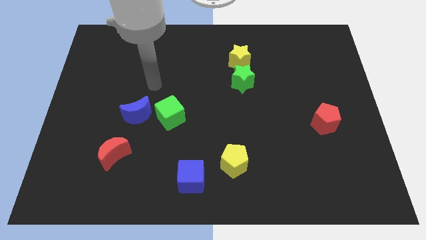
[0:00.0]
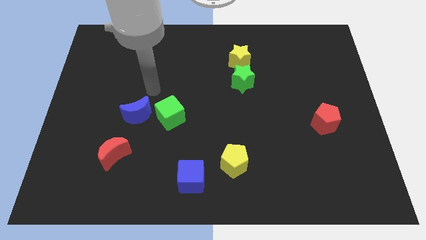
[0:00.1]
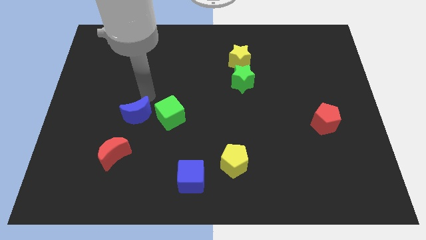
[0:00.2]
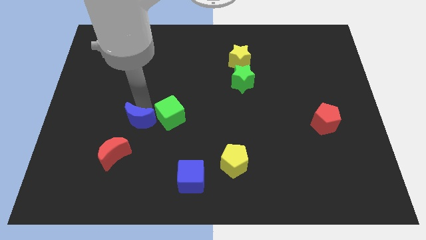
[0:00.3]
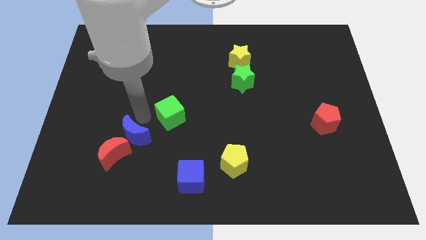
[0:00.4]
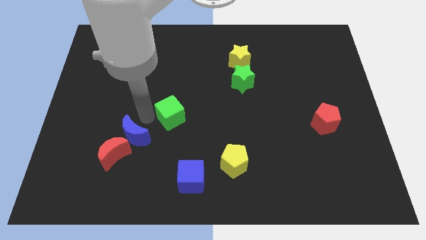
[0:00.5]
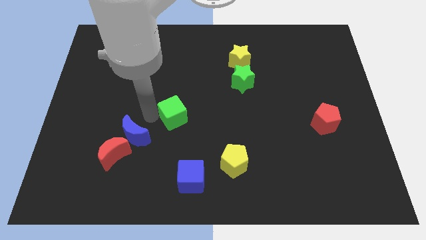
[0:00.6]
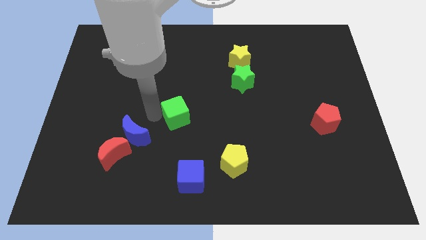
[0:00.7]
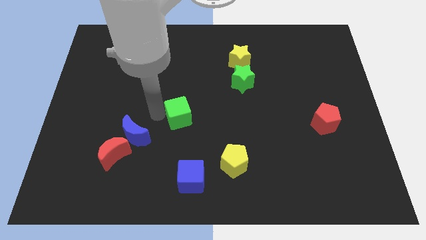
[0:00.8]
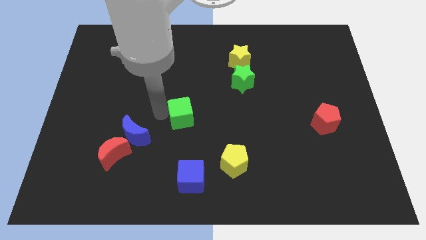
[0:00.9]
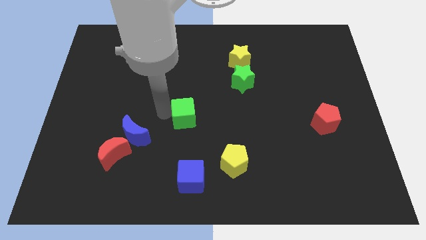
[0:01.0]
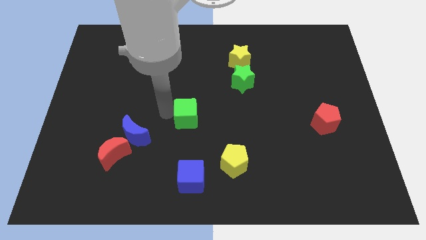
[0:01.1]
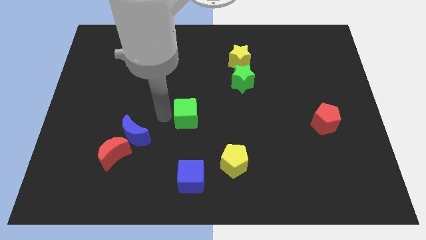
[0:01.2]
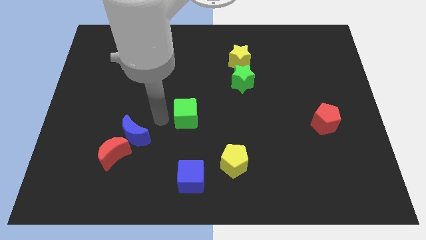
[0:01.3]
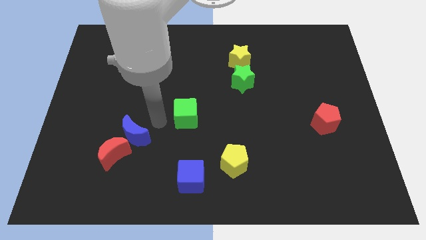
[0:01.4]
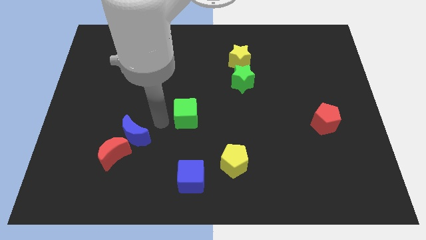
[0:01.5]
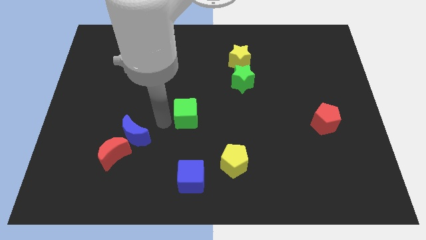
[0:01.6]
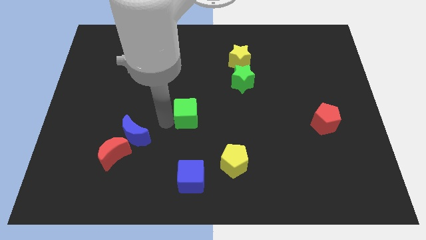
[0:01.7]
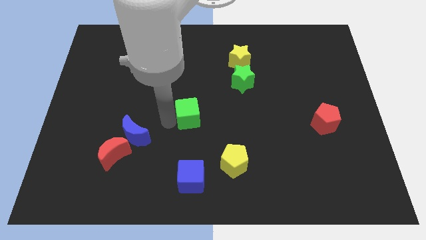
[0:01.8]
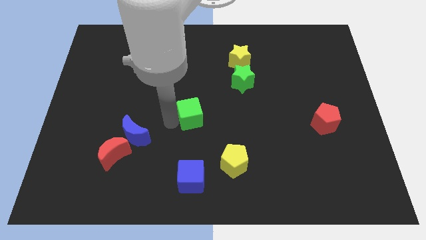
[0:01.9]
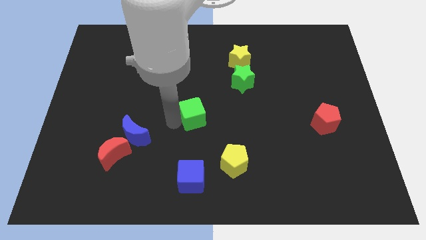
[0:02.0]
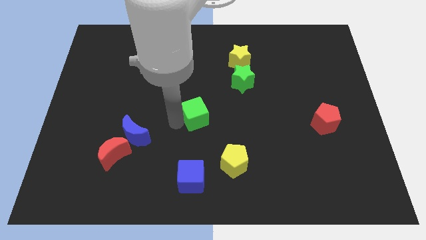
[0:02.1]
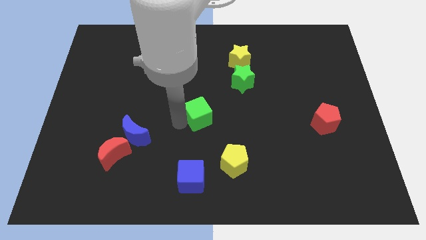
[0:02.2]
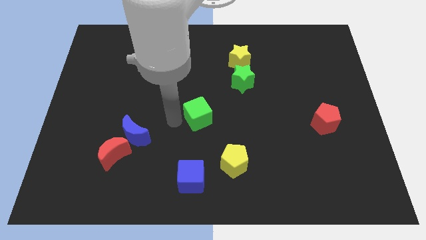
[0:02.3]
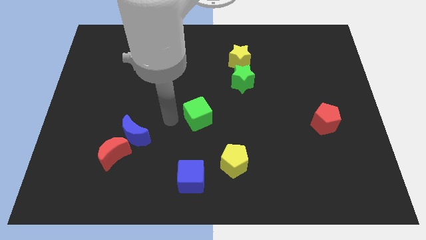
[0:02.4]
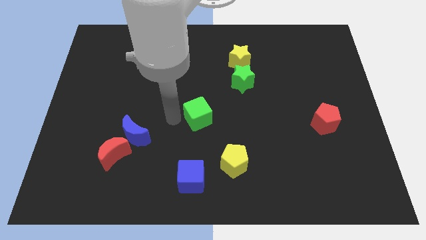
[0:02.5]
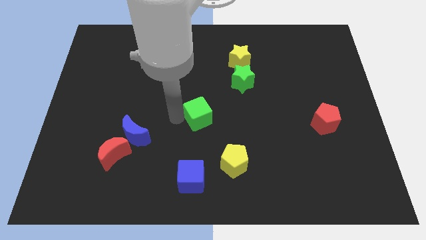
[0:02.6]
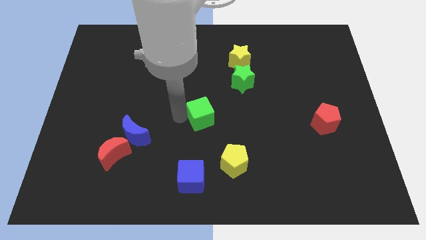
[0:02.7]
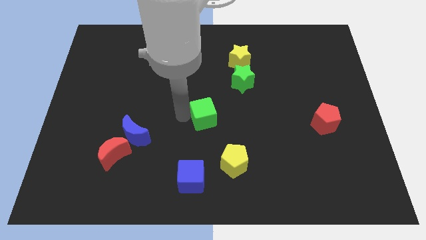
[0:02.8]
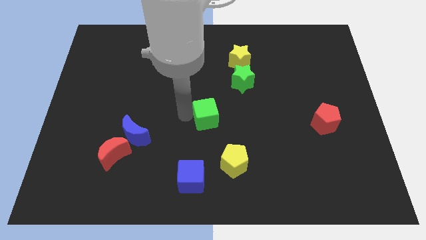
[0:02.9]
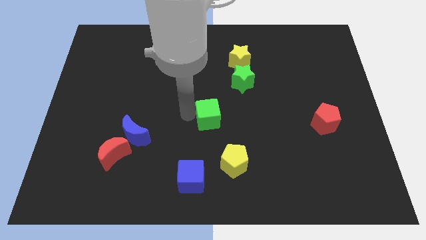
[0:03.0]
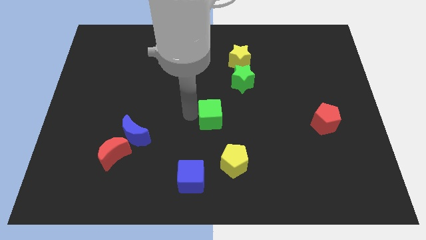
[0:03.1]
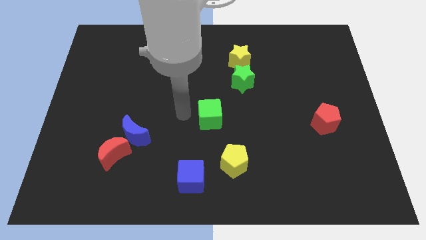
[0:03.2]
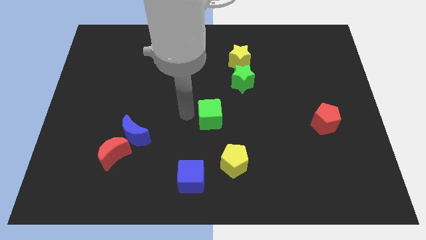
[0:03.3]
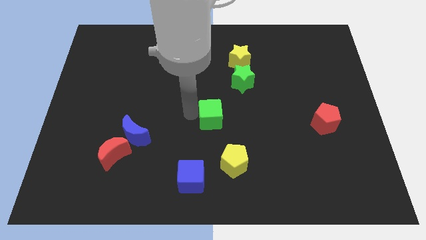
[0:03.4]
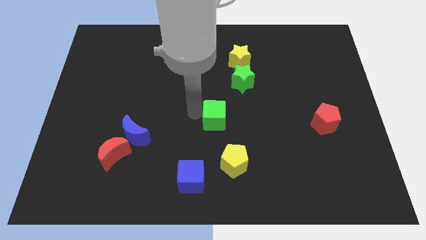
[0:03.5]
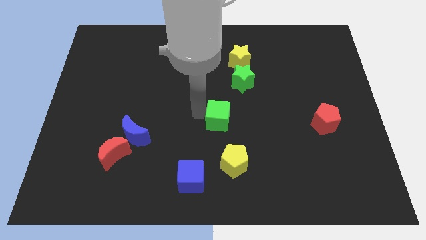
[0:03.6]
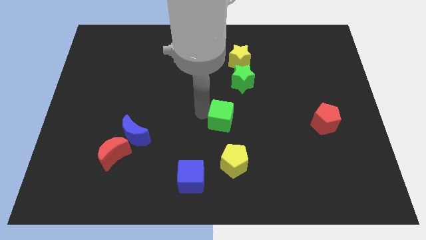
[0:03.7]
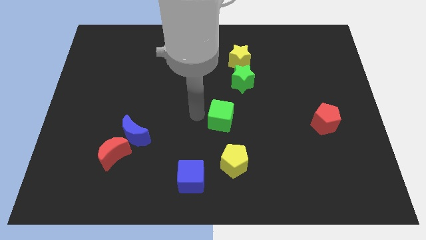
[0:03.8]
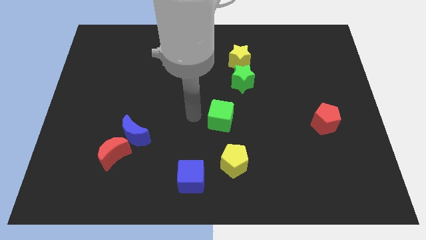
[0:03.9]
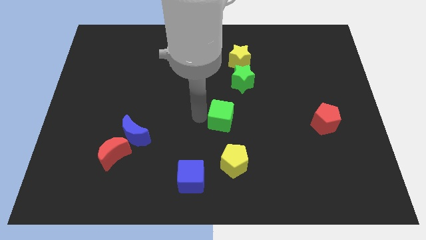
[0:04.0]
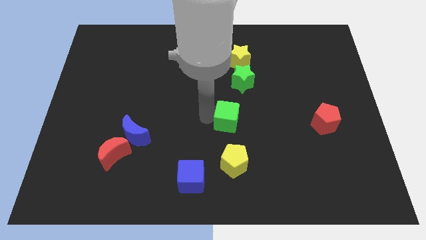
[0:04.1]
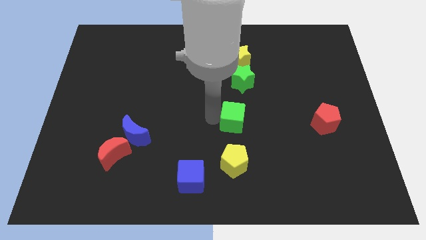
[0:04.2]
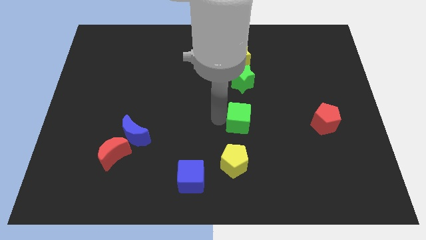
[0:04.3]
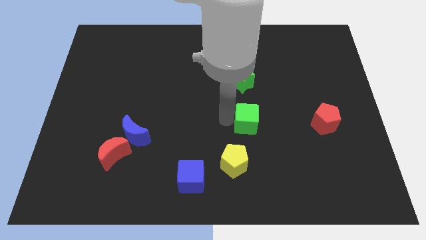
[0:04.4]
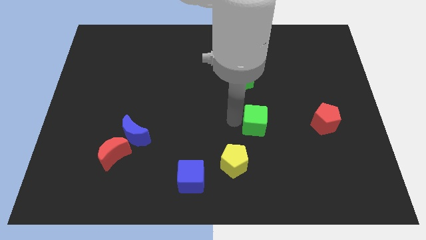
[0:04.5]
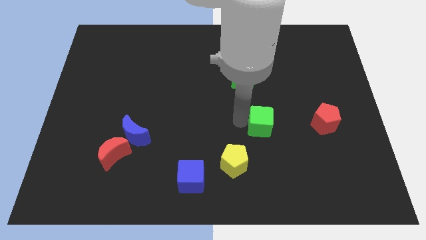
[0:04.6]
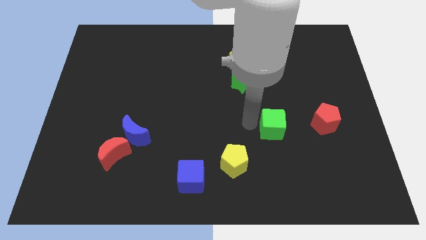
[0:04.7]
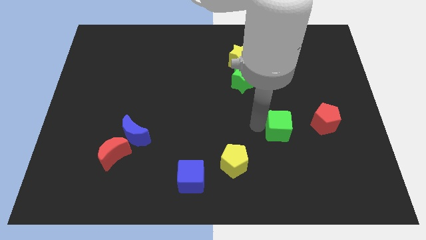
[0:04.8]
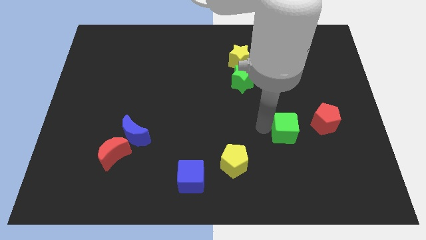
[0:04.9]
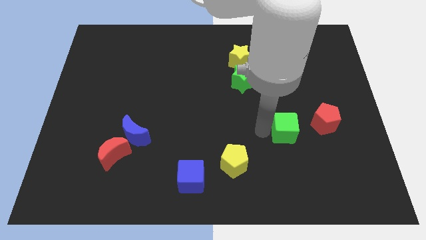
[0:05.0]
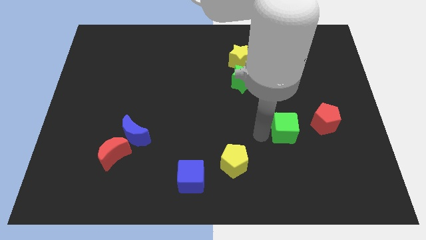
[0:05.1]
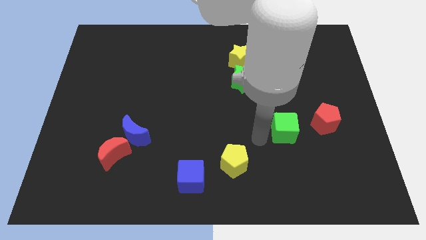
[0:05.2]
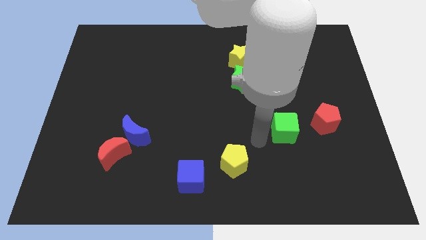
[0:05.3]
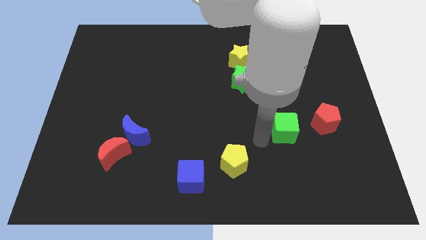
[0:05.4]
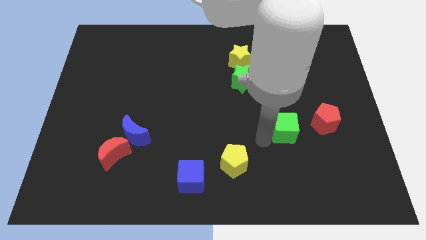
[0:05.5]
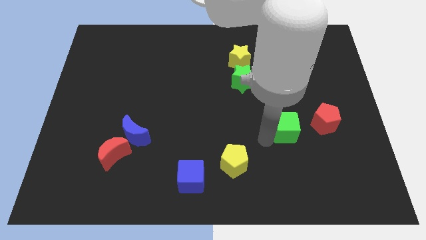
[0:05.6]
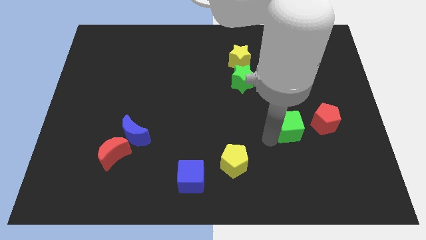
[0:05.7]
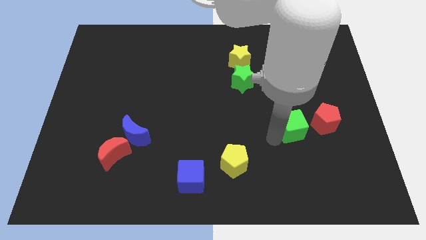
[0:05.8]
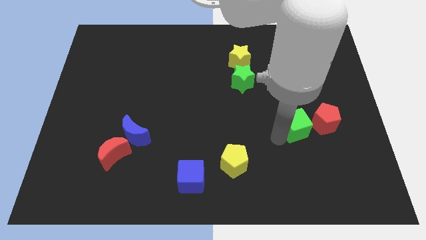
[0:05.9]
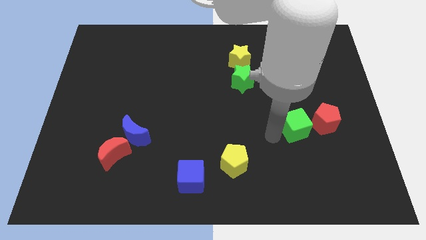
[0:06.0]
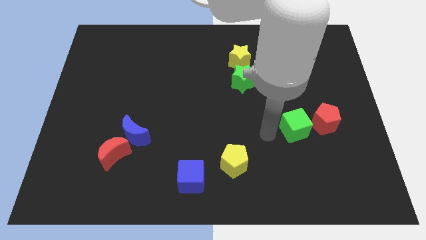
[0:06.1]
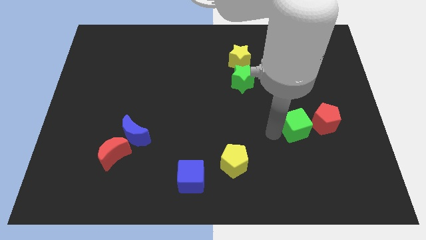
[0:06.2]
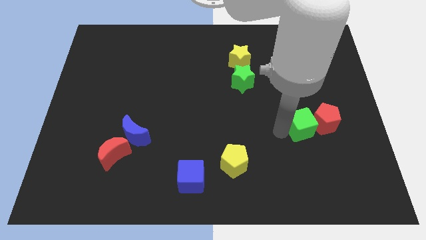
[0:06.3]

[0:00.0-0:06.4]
slide the green cube close to the red pentagon

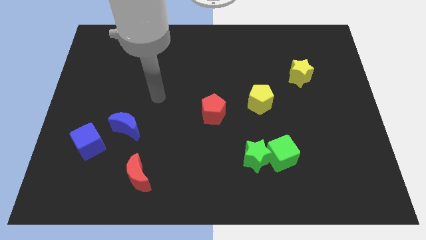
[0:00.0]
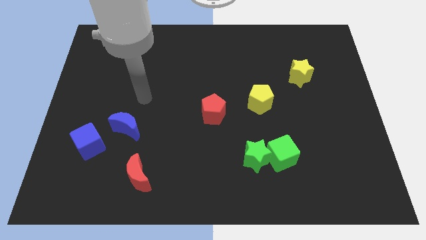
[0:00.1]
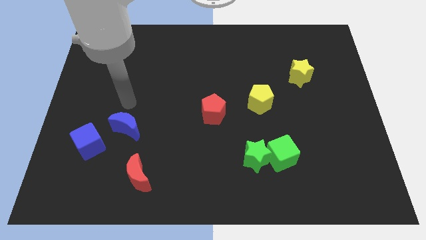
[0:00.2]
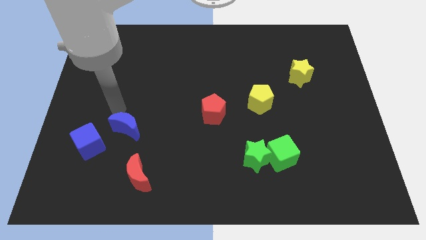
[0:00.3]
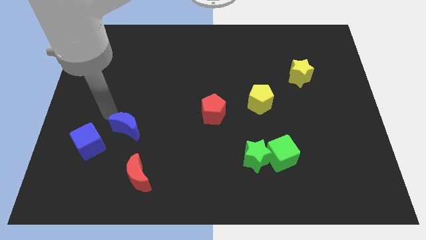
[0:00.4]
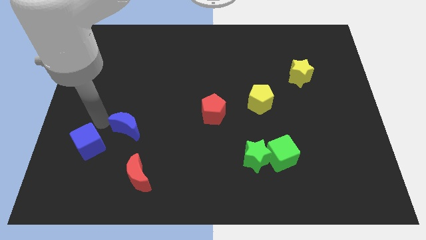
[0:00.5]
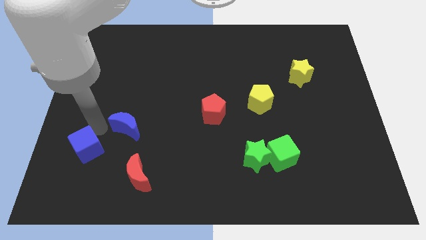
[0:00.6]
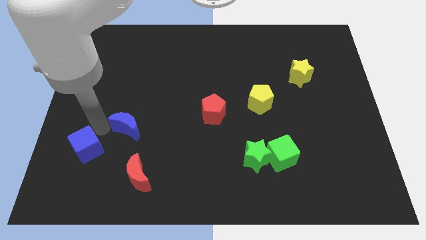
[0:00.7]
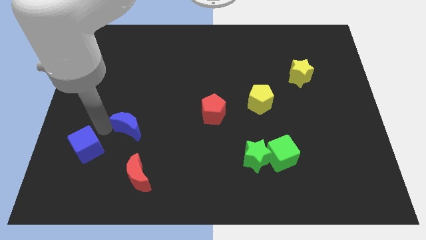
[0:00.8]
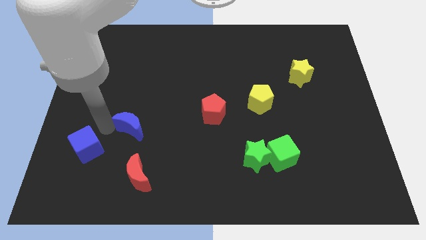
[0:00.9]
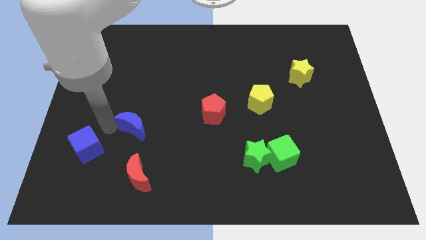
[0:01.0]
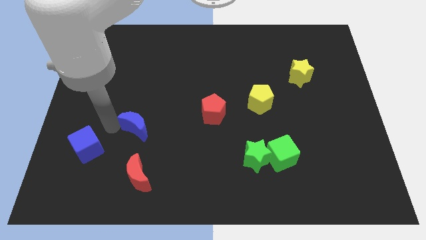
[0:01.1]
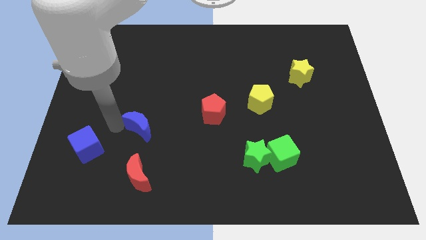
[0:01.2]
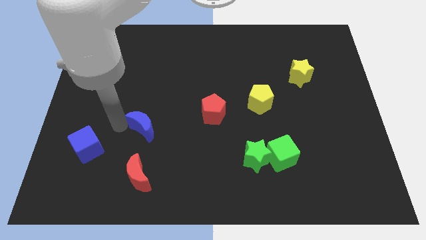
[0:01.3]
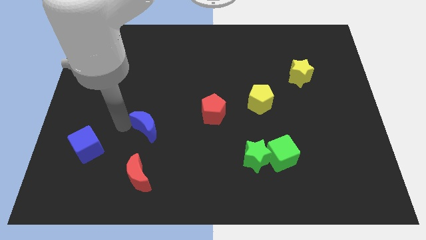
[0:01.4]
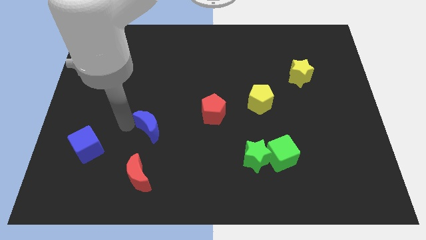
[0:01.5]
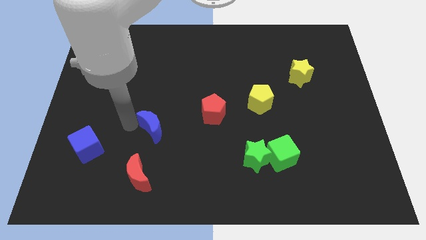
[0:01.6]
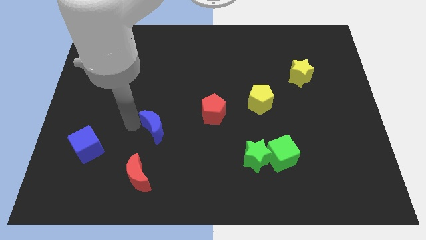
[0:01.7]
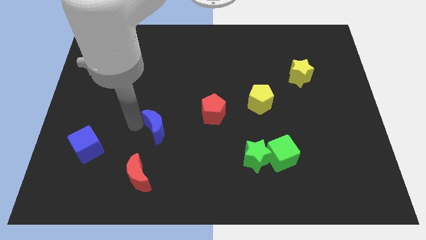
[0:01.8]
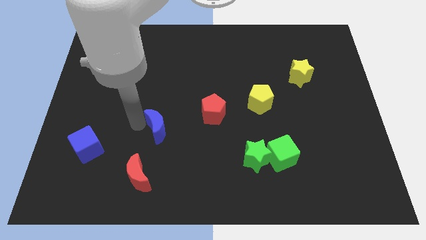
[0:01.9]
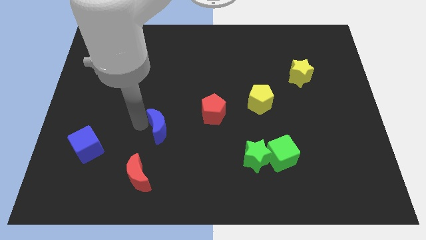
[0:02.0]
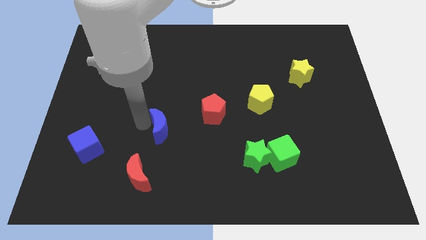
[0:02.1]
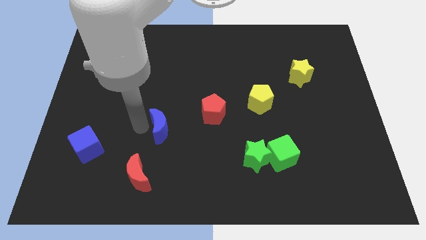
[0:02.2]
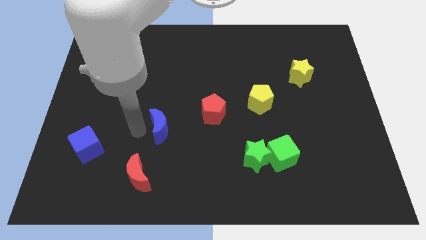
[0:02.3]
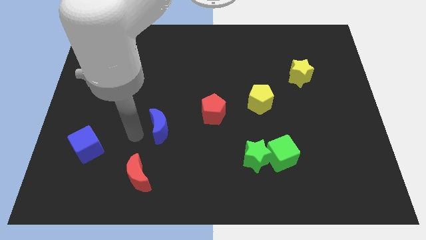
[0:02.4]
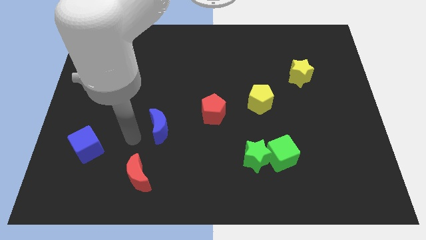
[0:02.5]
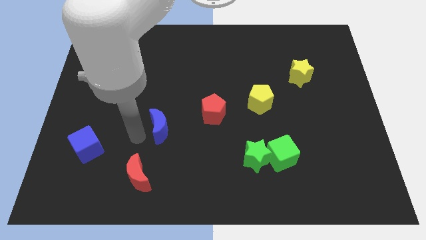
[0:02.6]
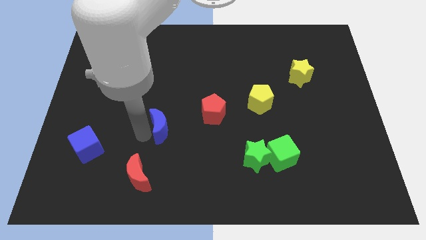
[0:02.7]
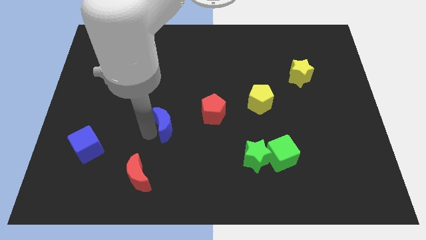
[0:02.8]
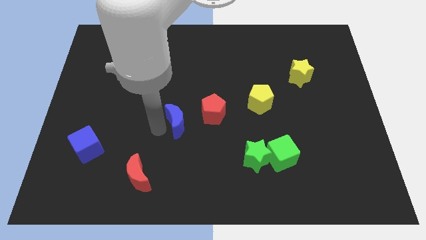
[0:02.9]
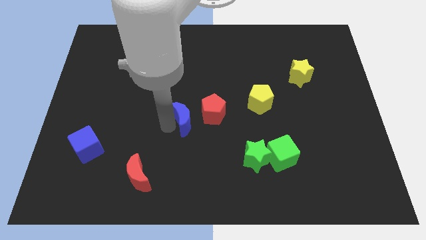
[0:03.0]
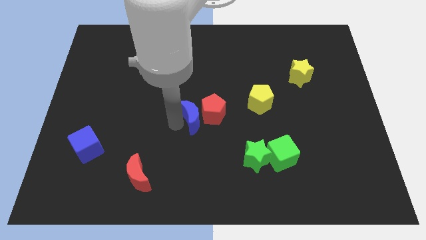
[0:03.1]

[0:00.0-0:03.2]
put the blue moon next to the red pentagon
